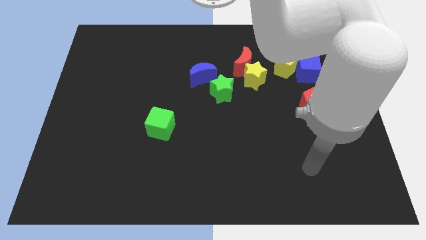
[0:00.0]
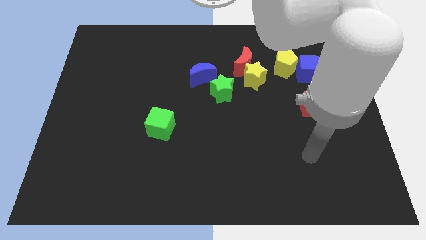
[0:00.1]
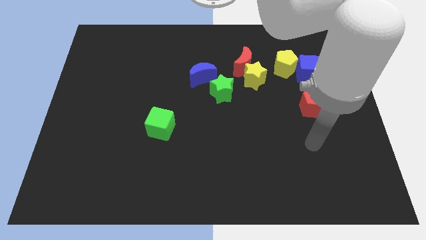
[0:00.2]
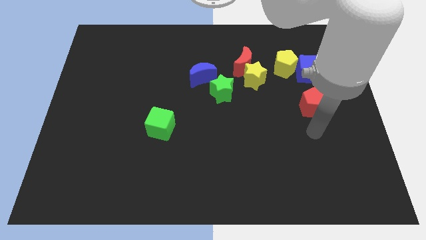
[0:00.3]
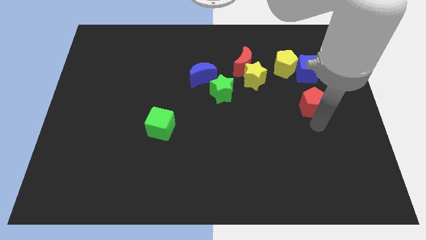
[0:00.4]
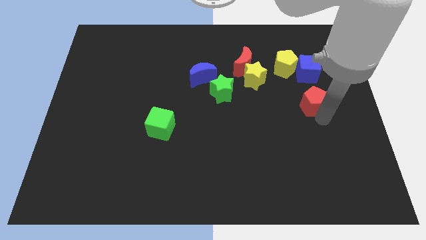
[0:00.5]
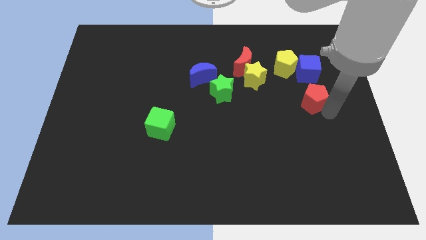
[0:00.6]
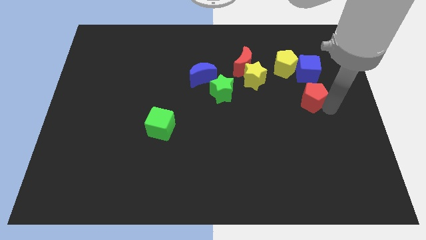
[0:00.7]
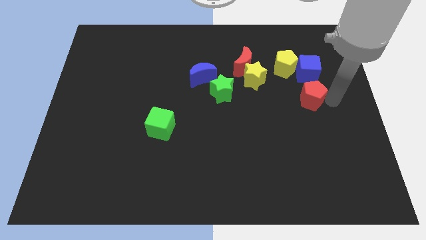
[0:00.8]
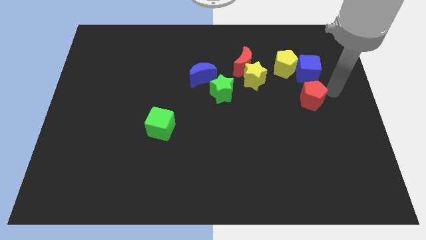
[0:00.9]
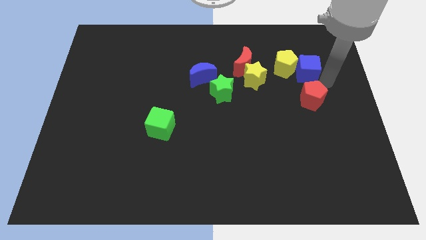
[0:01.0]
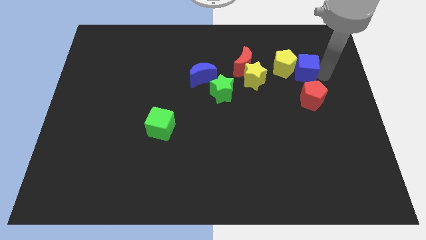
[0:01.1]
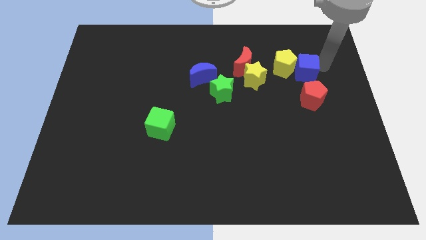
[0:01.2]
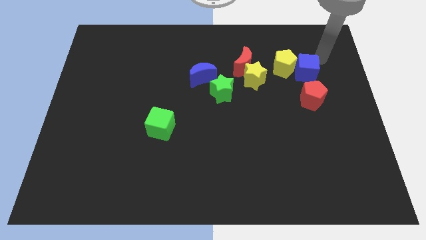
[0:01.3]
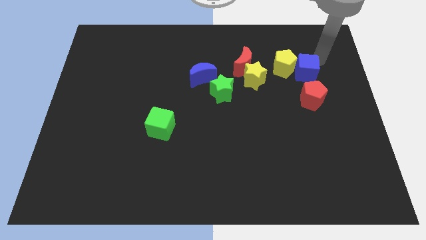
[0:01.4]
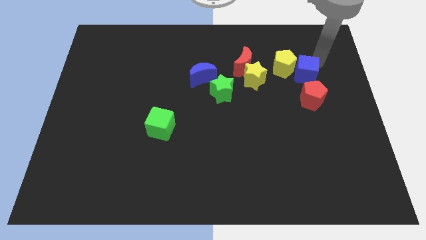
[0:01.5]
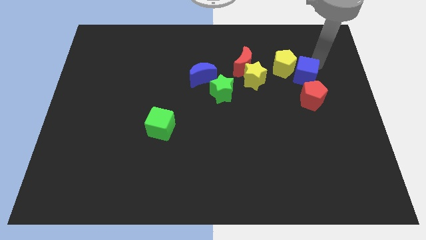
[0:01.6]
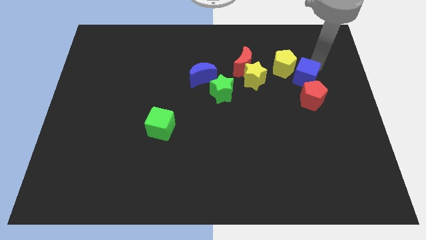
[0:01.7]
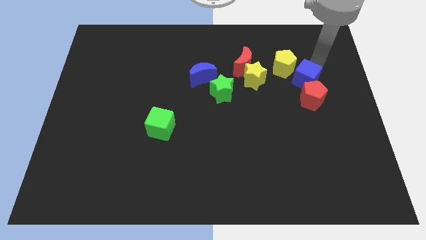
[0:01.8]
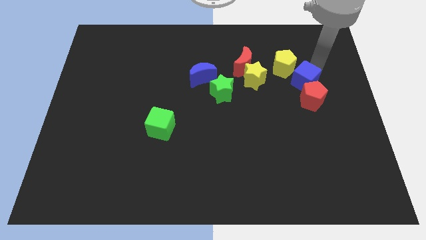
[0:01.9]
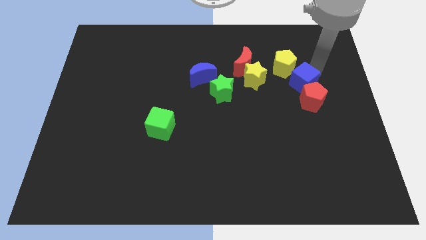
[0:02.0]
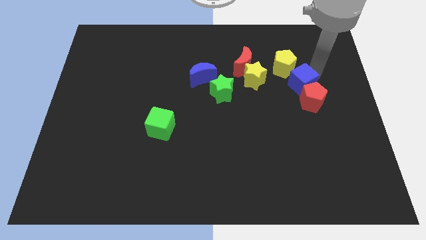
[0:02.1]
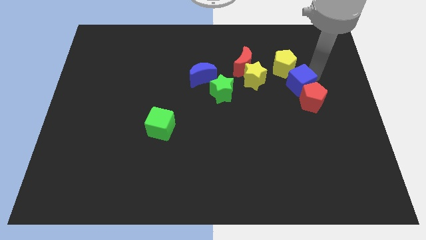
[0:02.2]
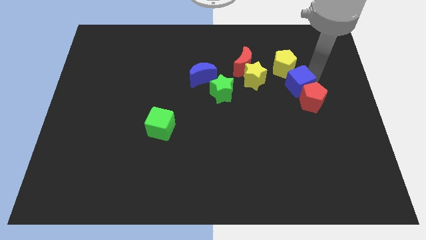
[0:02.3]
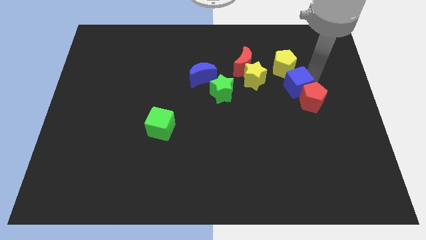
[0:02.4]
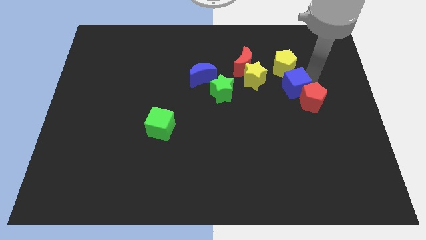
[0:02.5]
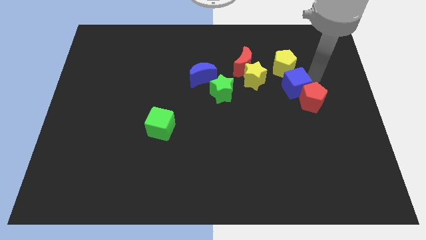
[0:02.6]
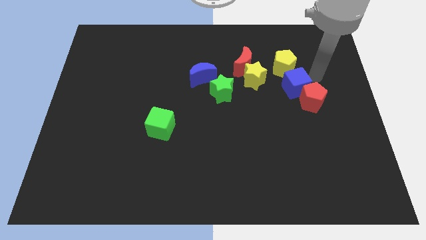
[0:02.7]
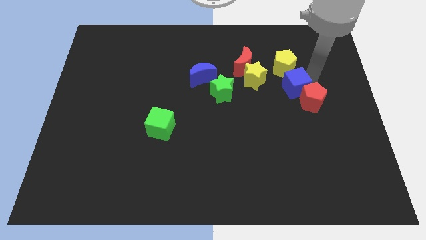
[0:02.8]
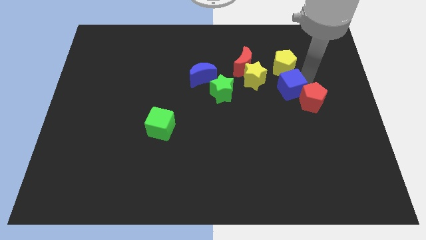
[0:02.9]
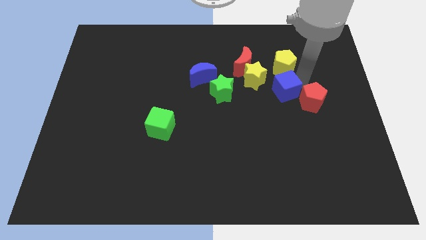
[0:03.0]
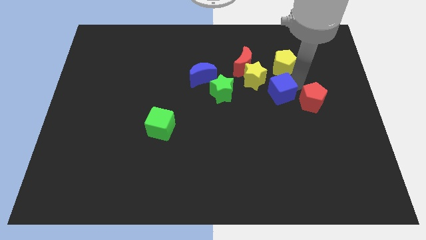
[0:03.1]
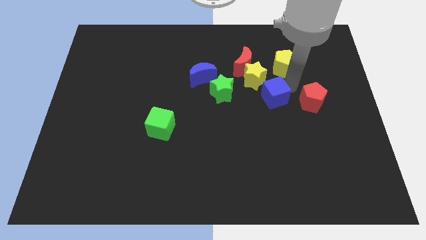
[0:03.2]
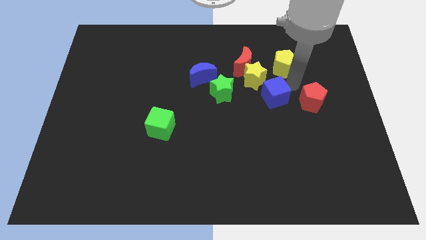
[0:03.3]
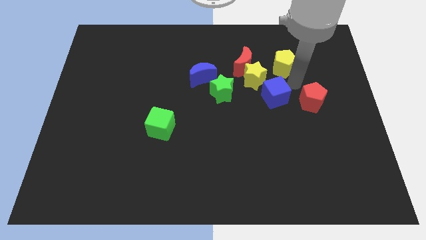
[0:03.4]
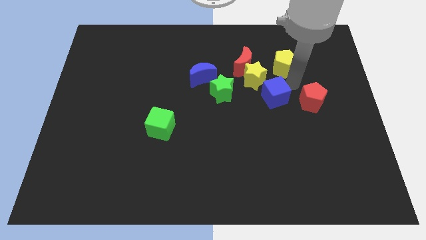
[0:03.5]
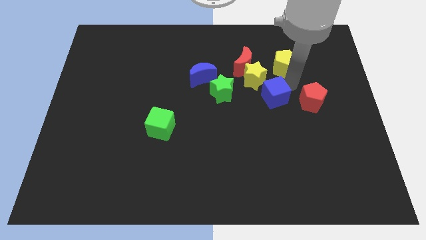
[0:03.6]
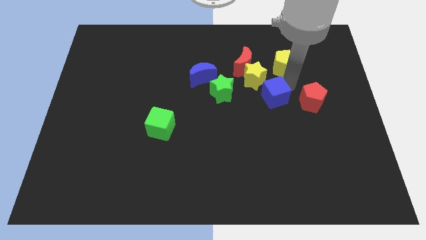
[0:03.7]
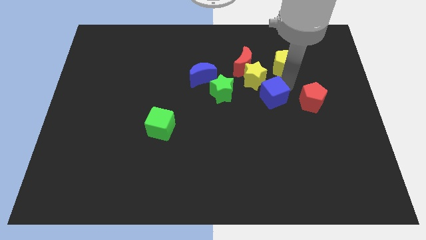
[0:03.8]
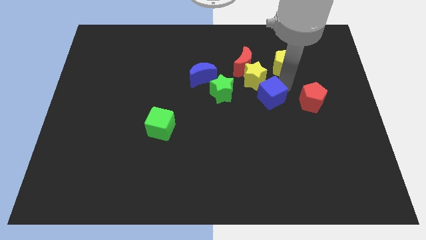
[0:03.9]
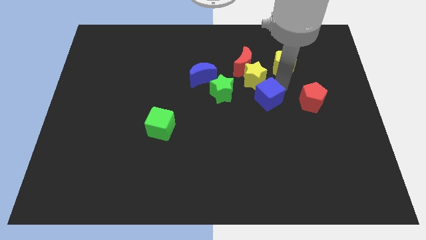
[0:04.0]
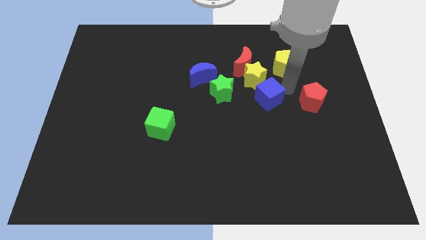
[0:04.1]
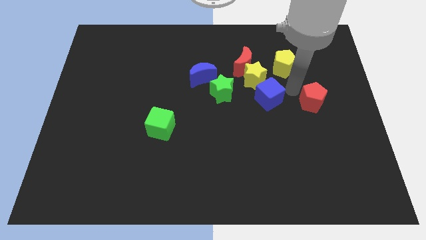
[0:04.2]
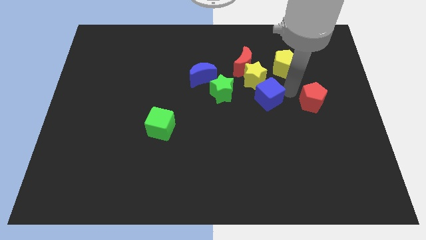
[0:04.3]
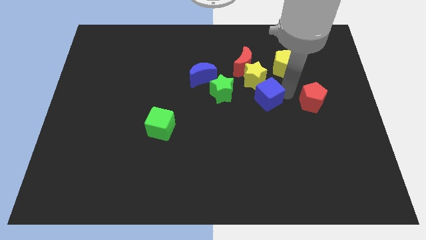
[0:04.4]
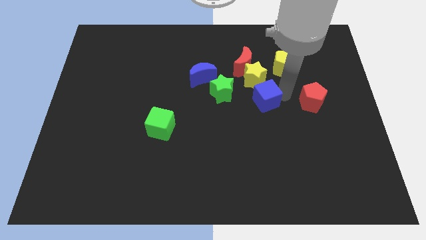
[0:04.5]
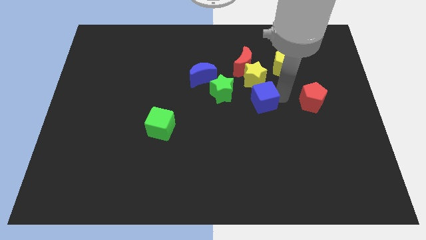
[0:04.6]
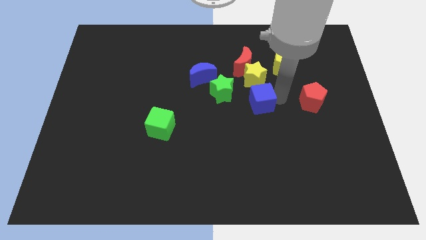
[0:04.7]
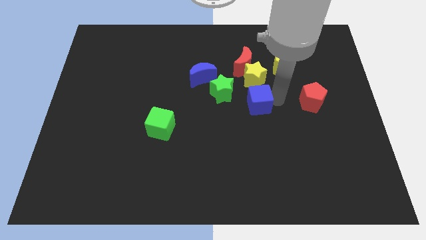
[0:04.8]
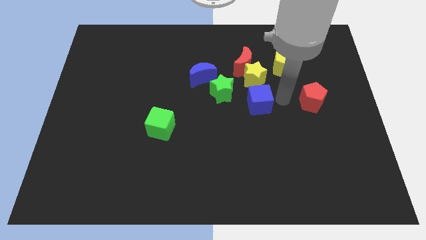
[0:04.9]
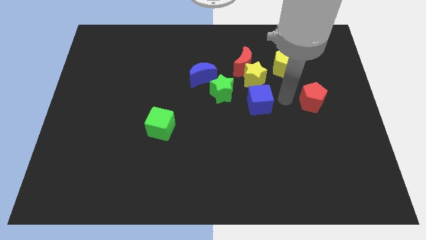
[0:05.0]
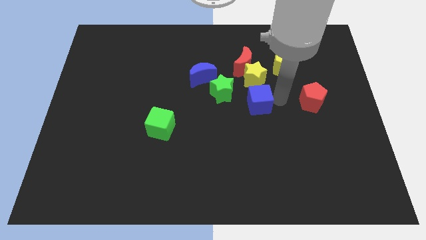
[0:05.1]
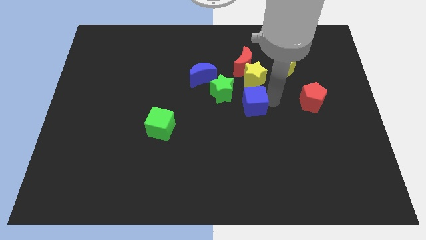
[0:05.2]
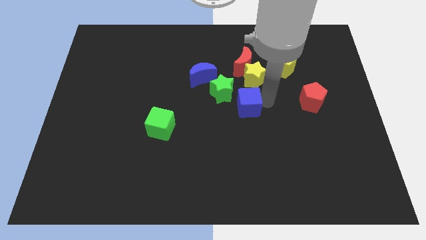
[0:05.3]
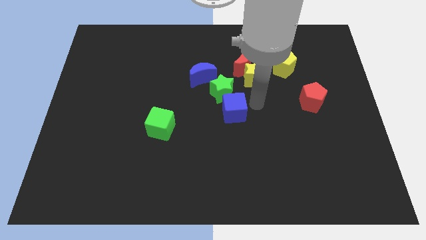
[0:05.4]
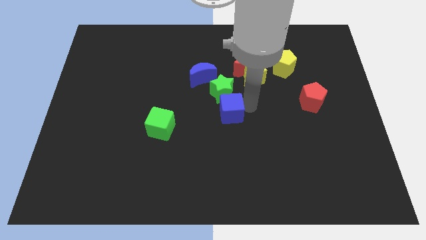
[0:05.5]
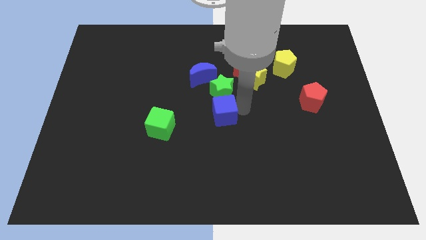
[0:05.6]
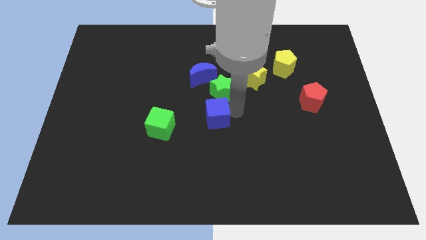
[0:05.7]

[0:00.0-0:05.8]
put the blue cube to the bottom of the blue moon

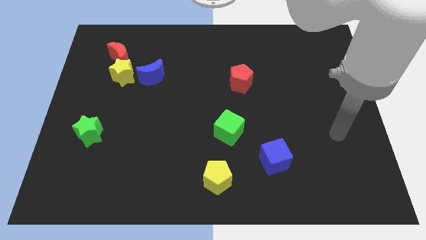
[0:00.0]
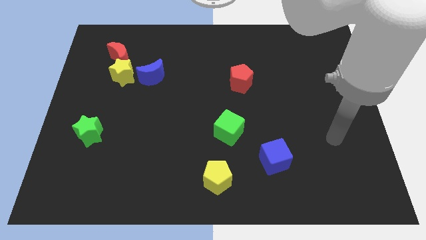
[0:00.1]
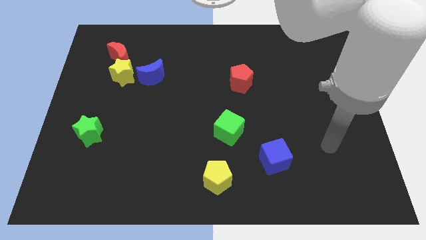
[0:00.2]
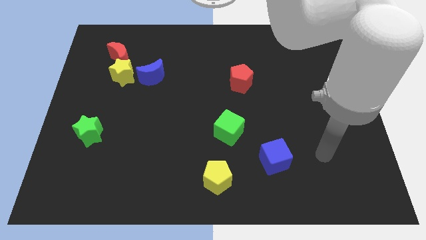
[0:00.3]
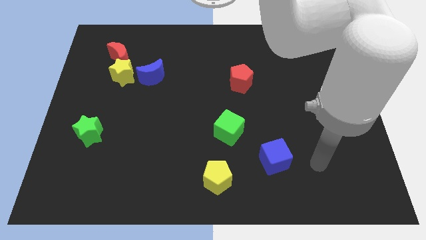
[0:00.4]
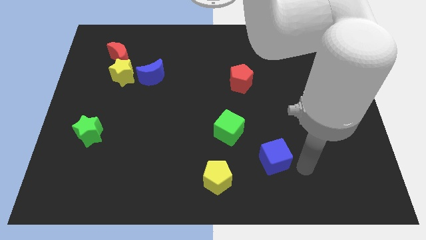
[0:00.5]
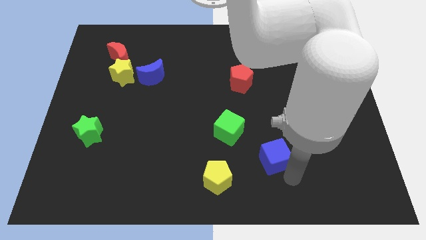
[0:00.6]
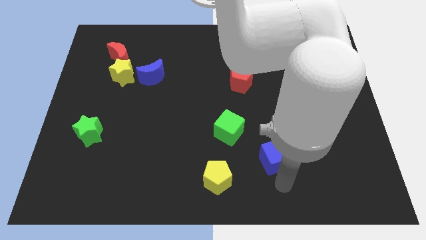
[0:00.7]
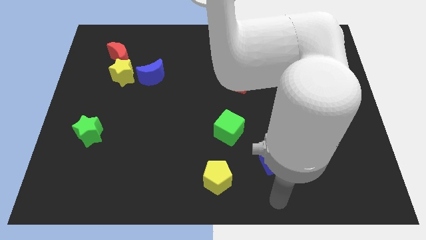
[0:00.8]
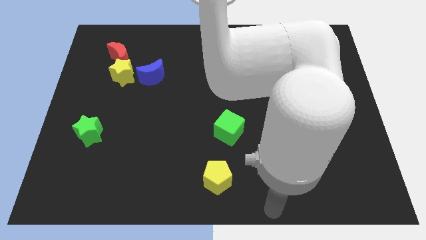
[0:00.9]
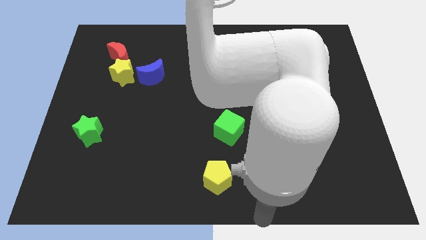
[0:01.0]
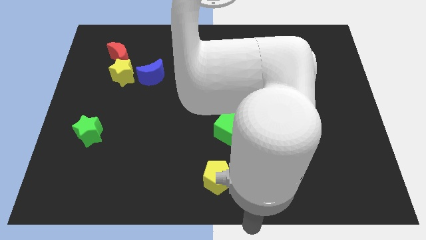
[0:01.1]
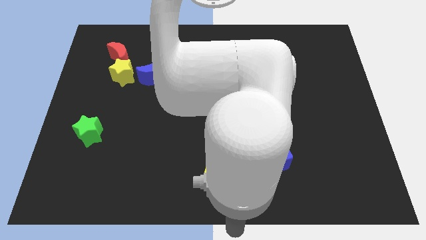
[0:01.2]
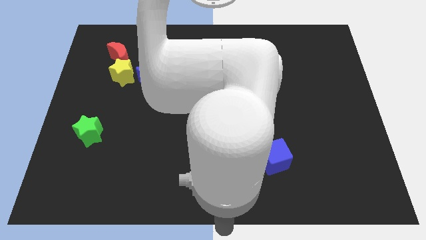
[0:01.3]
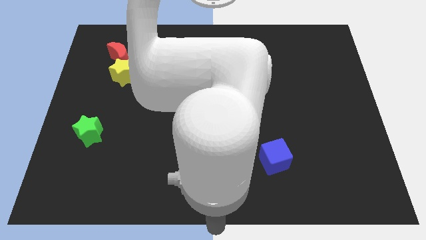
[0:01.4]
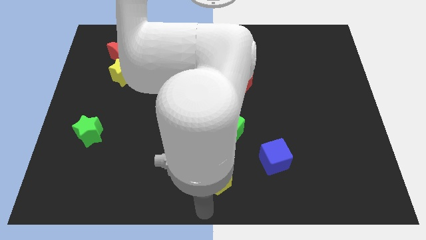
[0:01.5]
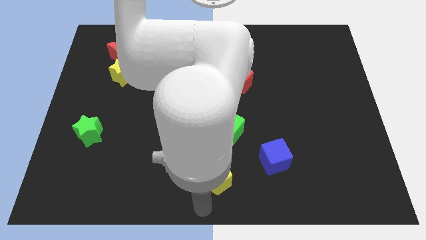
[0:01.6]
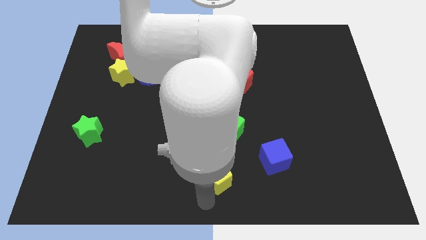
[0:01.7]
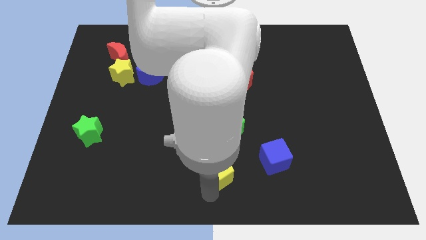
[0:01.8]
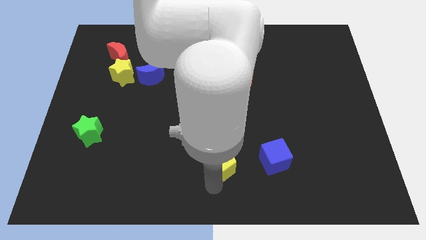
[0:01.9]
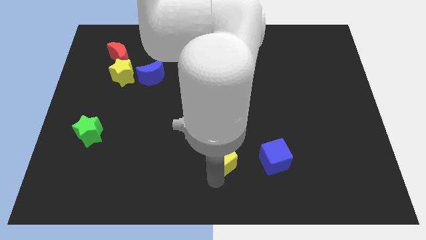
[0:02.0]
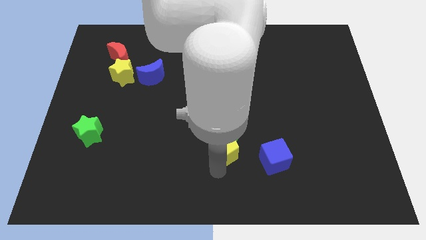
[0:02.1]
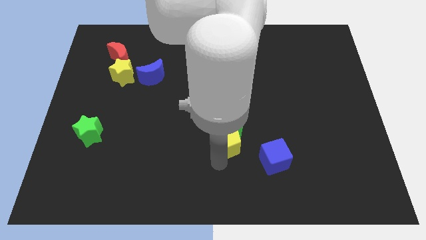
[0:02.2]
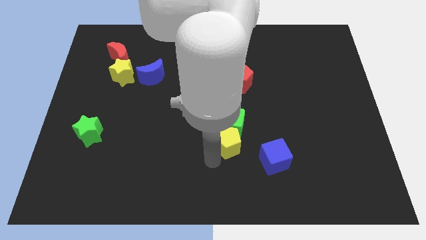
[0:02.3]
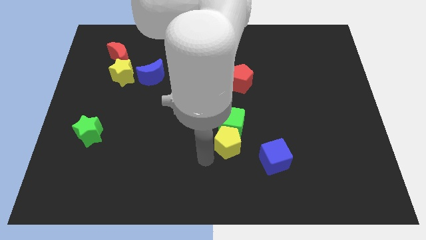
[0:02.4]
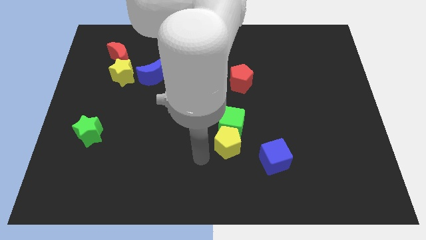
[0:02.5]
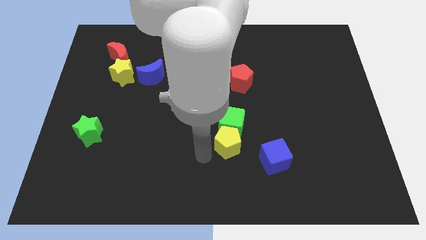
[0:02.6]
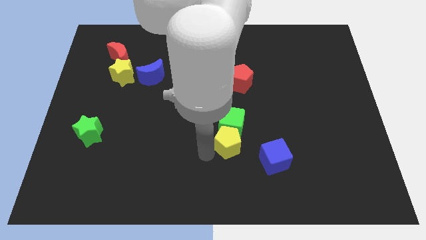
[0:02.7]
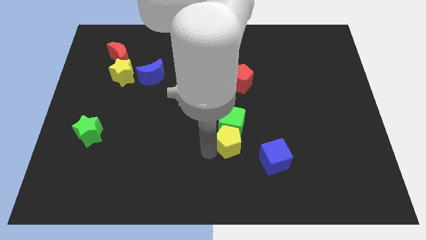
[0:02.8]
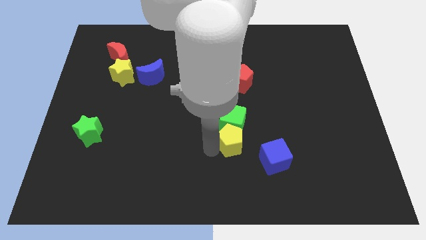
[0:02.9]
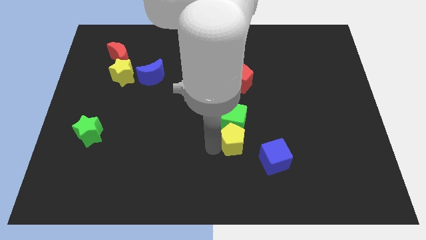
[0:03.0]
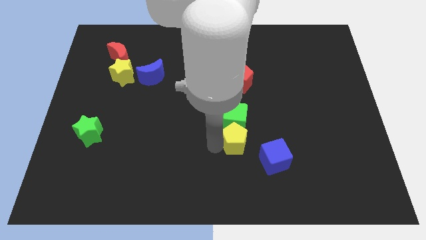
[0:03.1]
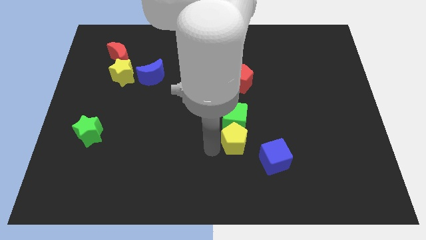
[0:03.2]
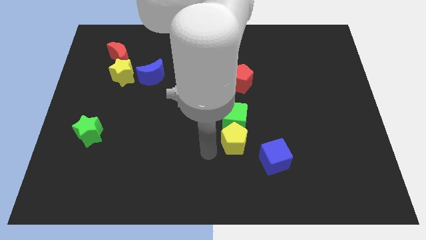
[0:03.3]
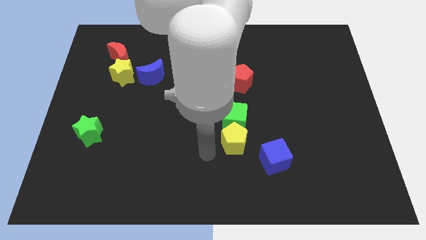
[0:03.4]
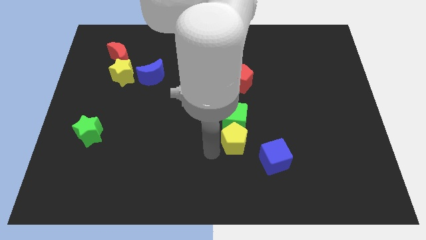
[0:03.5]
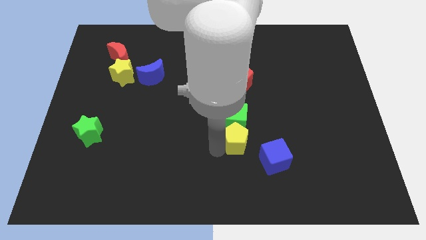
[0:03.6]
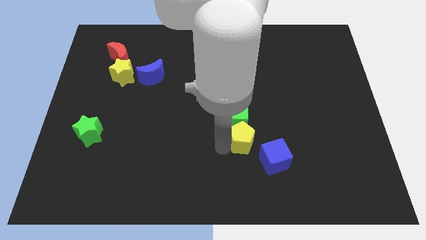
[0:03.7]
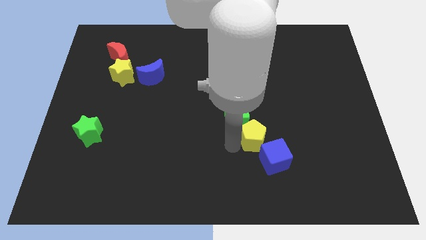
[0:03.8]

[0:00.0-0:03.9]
slide the yellow pentagon to the top side of the blue cube
